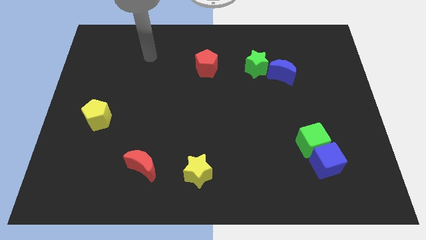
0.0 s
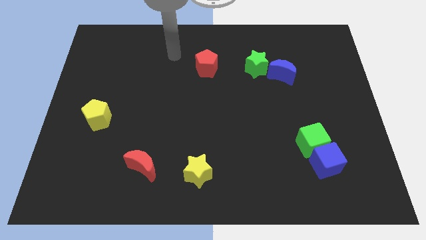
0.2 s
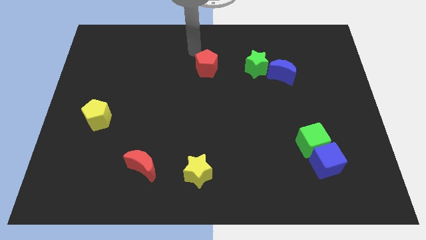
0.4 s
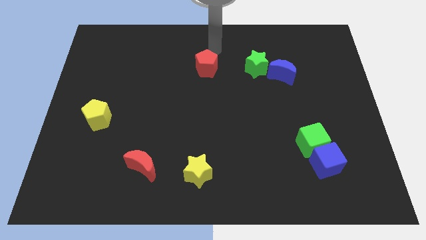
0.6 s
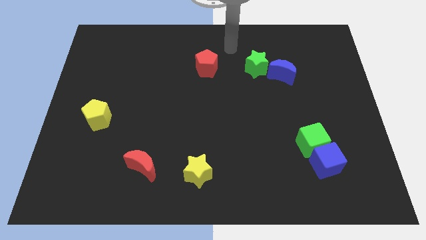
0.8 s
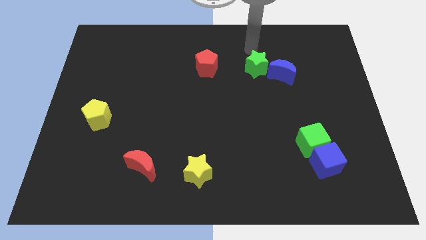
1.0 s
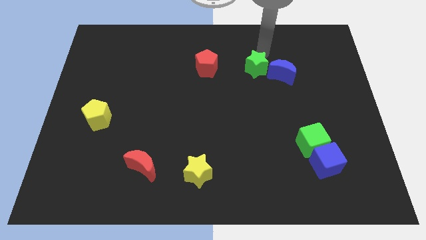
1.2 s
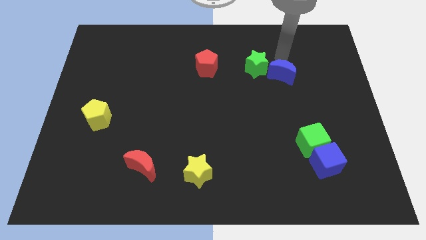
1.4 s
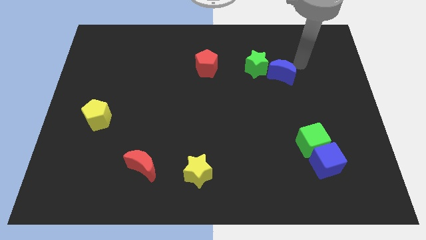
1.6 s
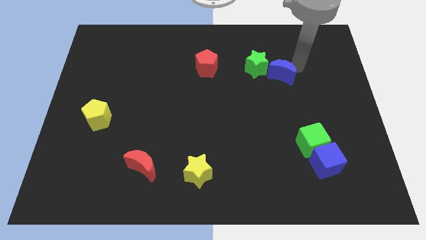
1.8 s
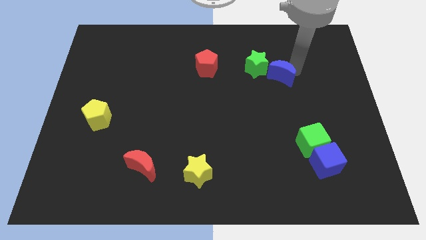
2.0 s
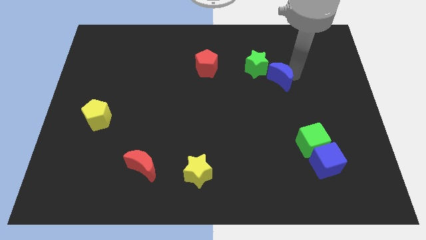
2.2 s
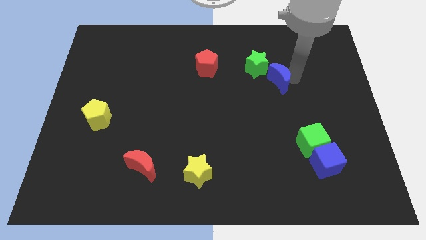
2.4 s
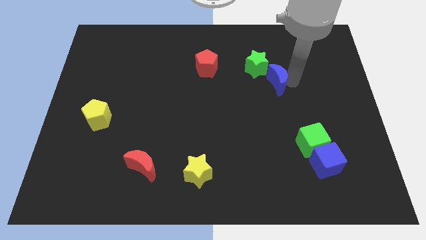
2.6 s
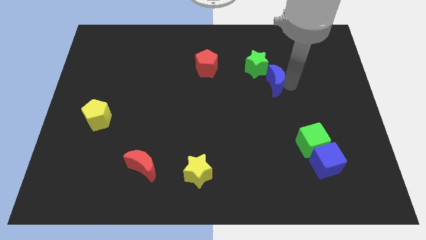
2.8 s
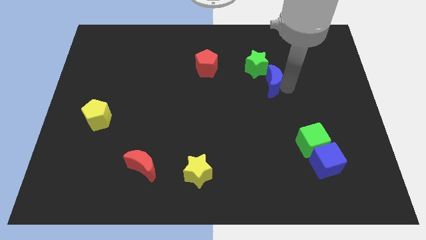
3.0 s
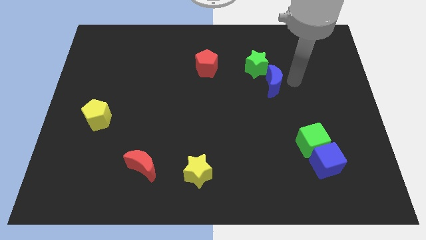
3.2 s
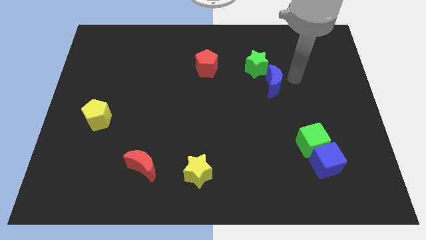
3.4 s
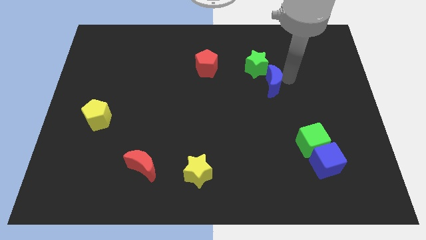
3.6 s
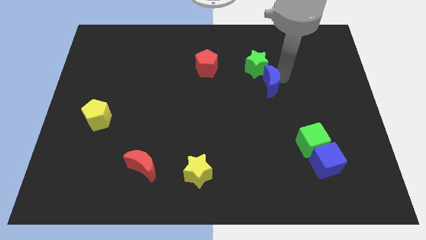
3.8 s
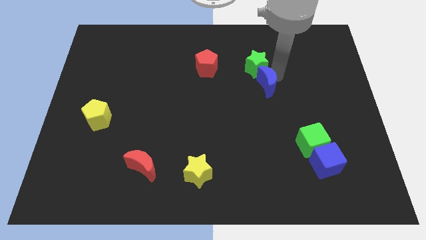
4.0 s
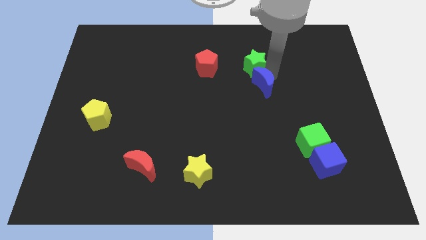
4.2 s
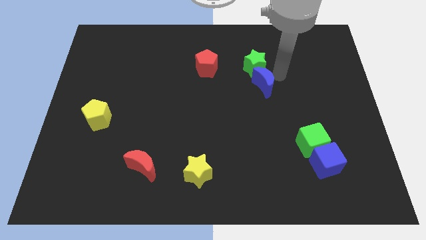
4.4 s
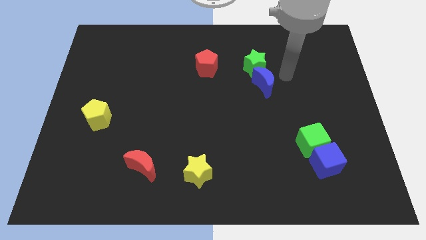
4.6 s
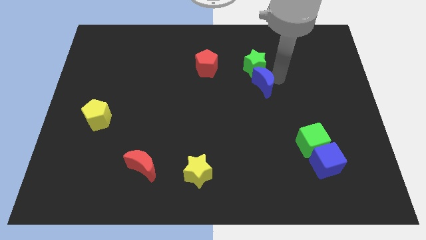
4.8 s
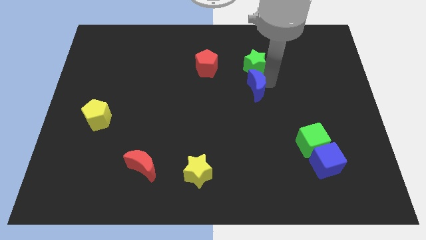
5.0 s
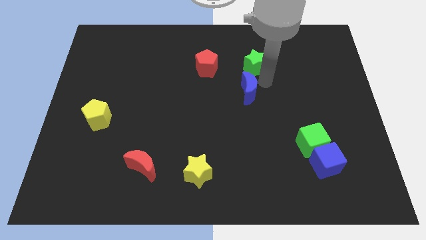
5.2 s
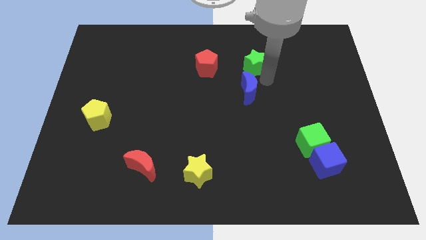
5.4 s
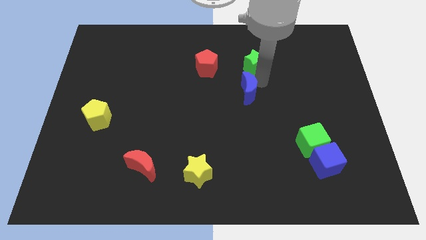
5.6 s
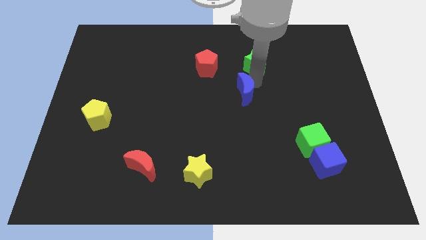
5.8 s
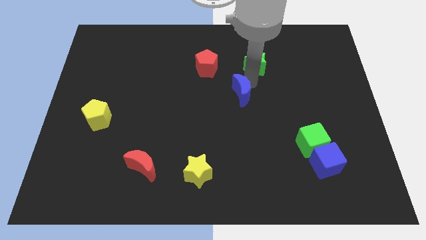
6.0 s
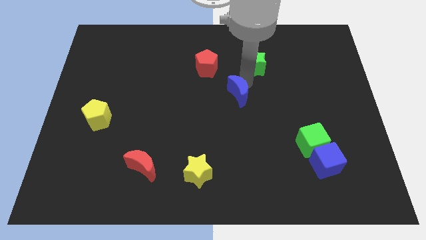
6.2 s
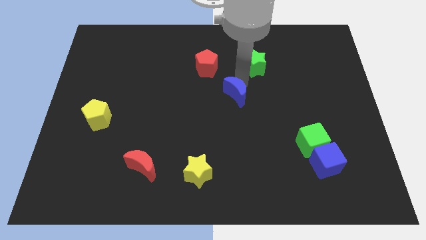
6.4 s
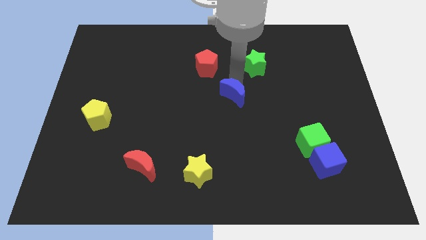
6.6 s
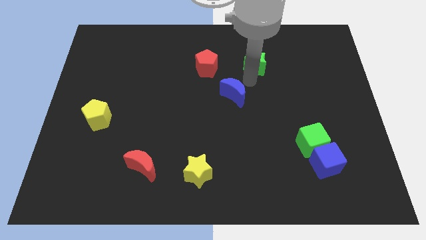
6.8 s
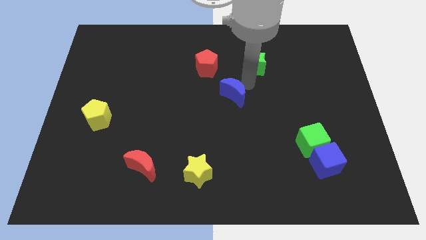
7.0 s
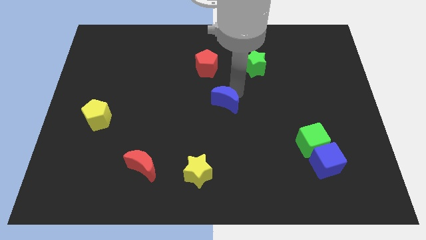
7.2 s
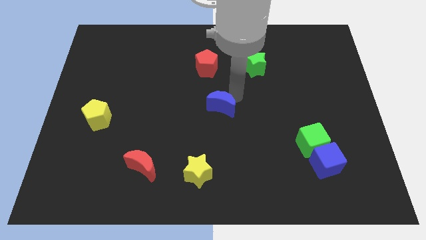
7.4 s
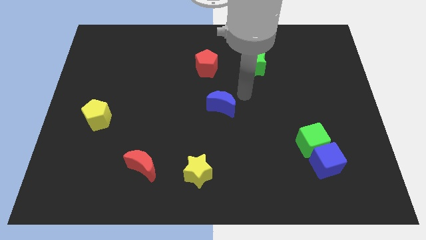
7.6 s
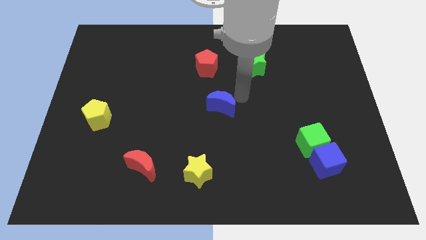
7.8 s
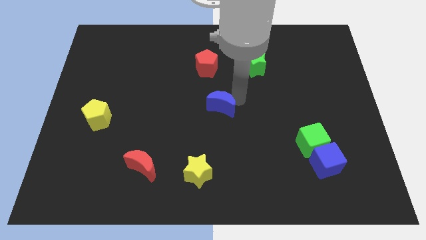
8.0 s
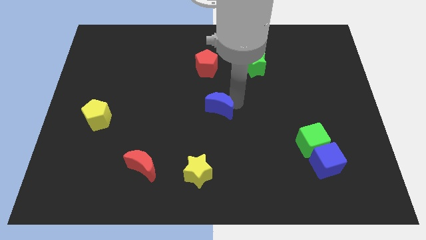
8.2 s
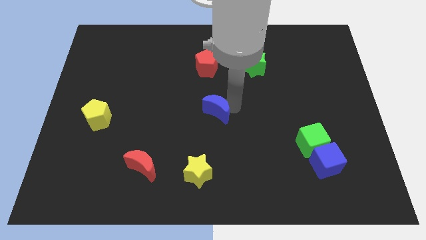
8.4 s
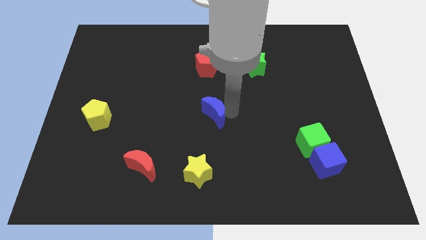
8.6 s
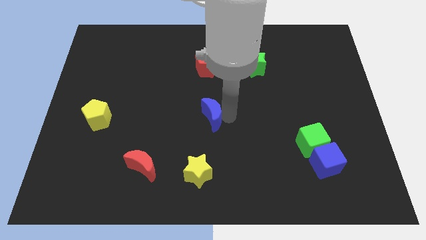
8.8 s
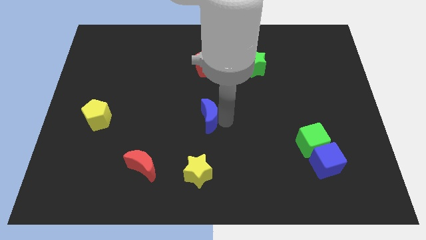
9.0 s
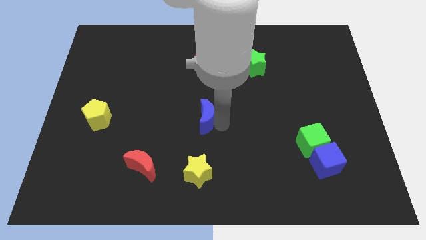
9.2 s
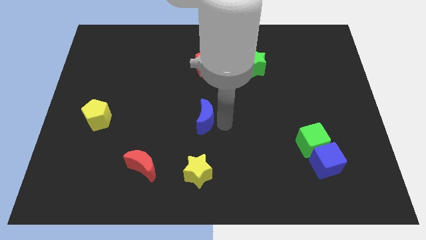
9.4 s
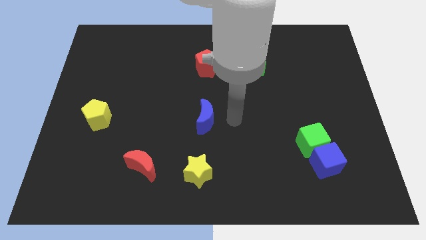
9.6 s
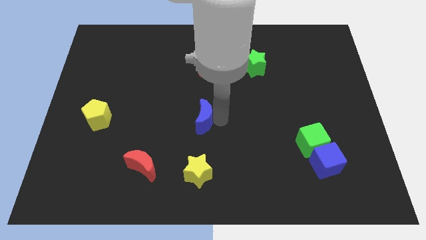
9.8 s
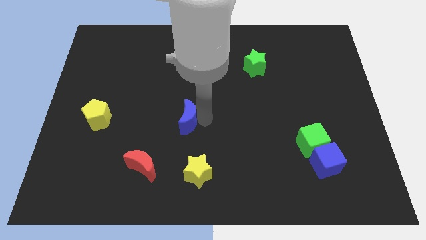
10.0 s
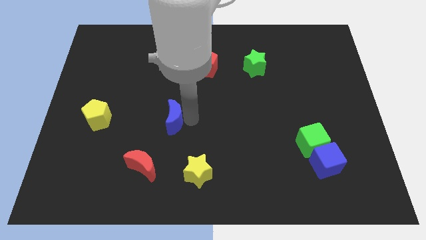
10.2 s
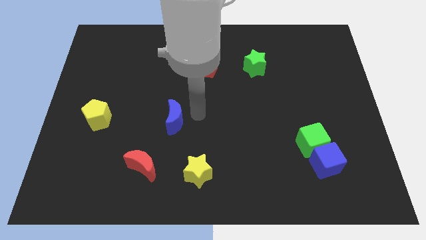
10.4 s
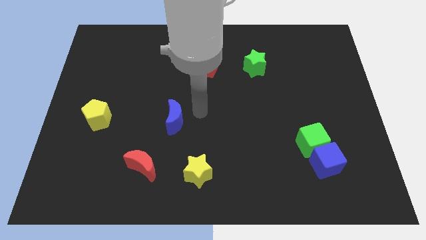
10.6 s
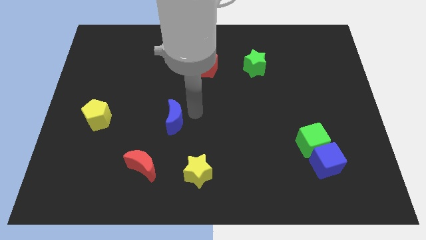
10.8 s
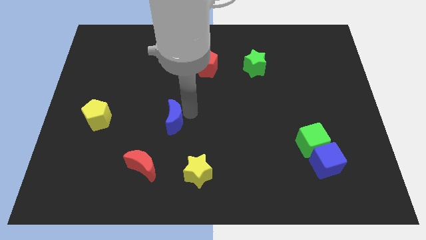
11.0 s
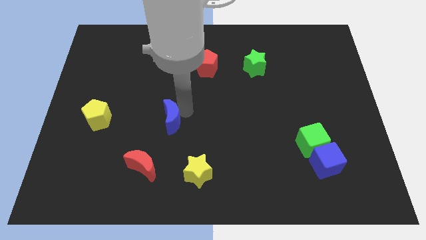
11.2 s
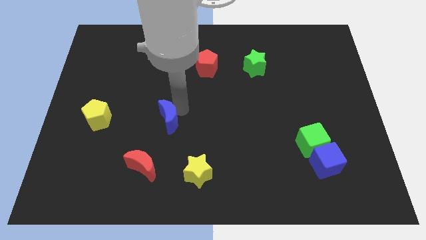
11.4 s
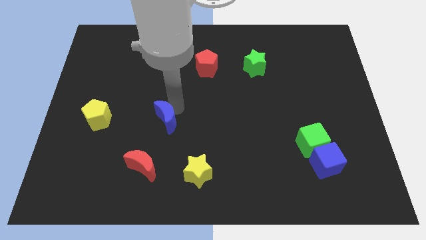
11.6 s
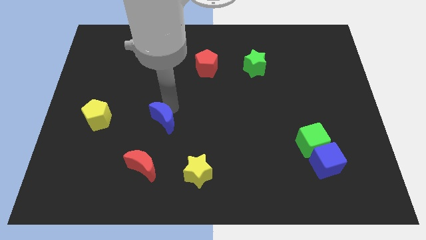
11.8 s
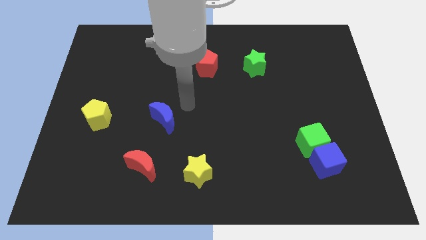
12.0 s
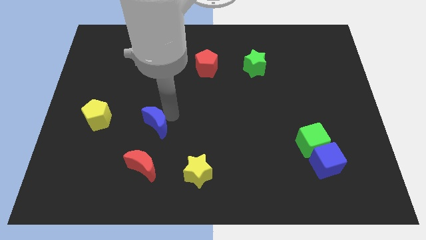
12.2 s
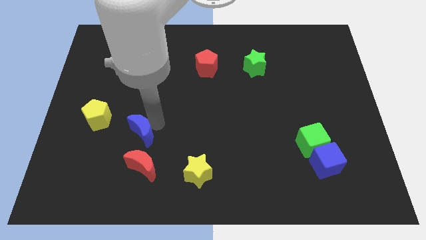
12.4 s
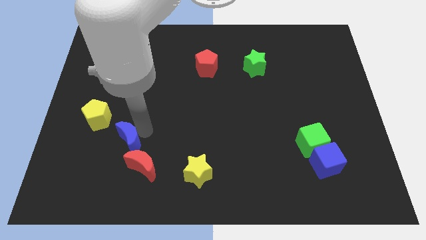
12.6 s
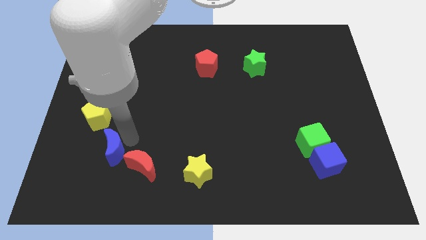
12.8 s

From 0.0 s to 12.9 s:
move the blue moon just left of the red moon

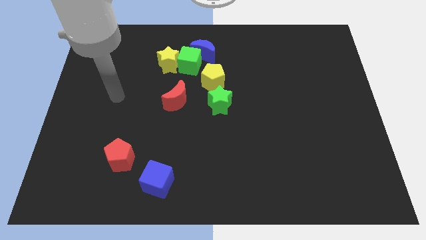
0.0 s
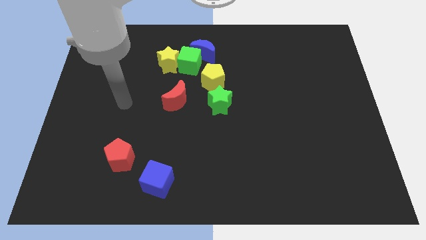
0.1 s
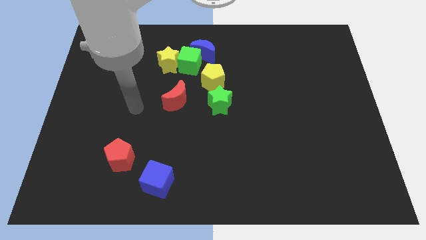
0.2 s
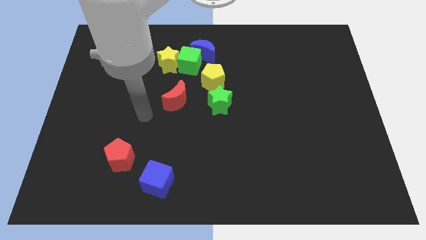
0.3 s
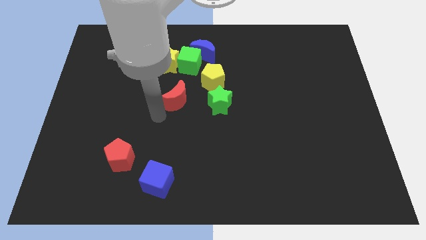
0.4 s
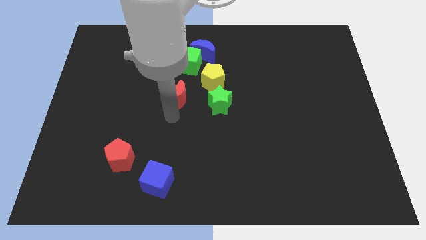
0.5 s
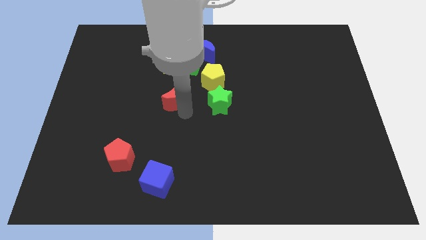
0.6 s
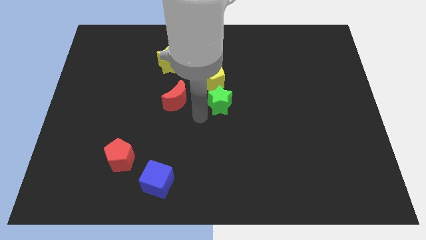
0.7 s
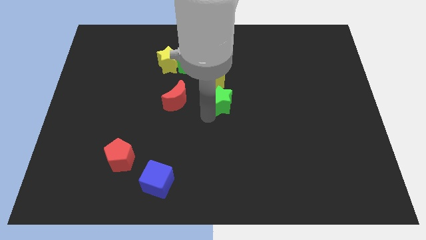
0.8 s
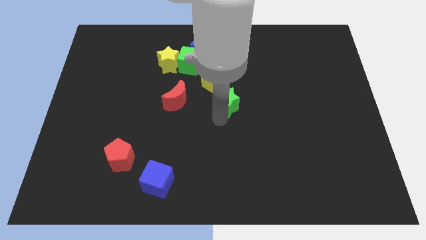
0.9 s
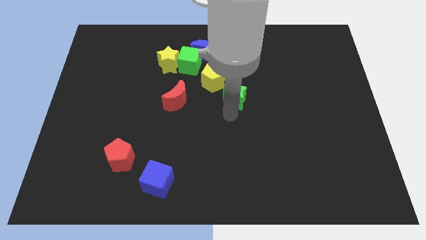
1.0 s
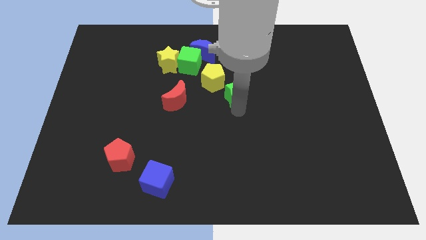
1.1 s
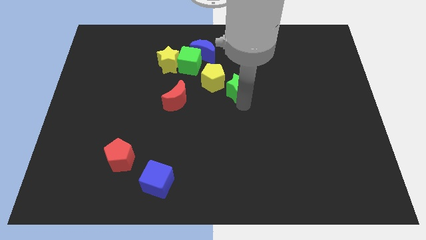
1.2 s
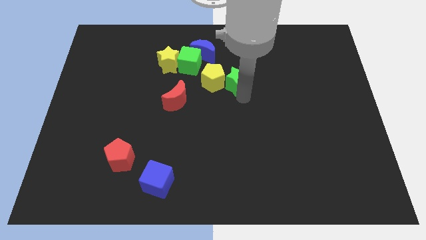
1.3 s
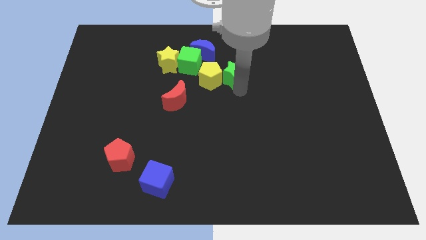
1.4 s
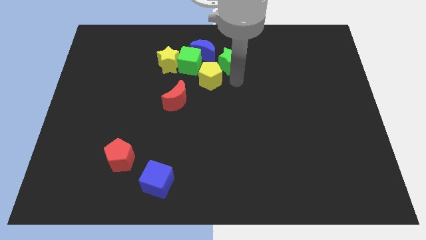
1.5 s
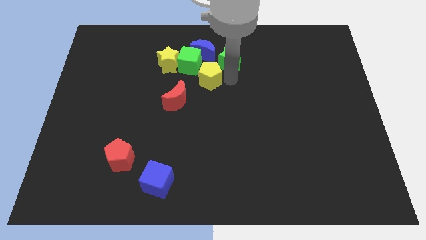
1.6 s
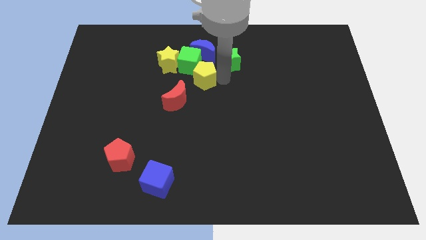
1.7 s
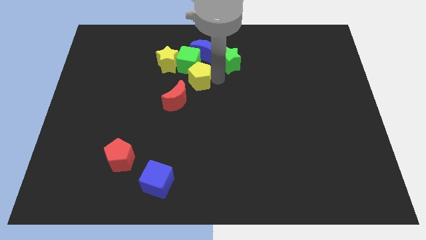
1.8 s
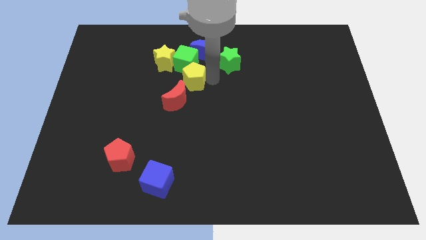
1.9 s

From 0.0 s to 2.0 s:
slide the yellow pentagon to the bottom left of the blue moon
